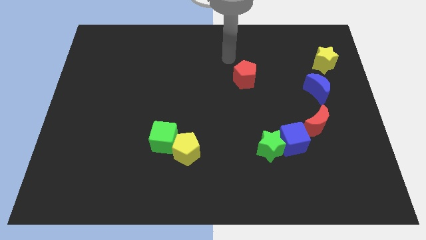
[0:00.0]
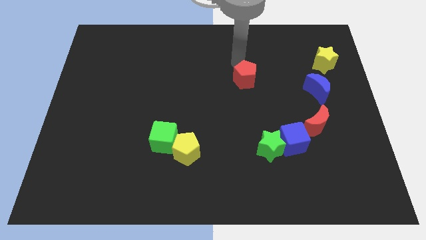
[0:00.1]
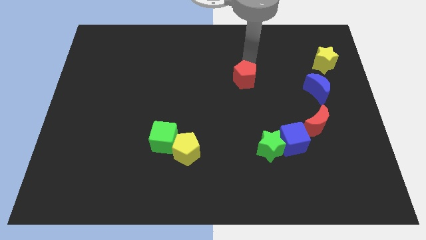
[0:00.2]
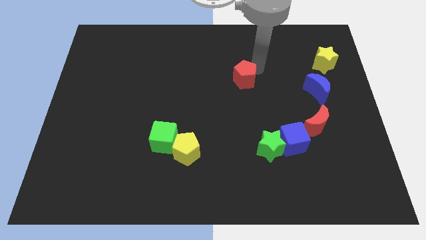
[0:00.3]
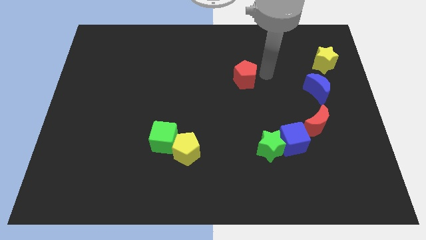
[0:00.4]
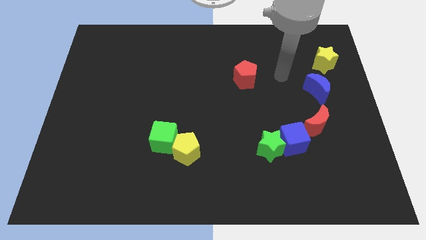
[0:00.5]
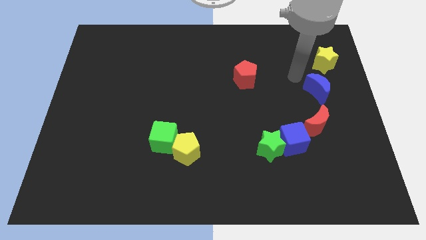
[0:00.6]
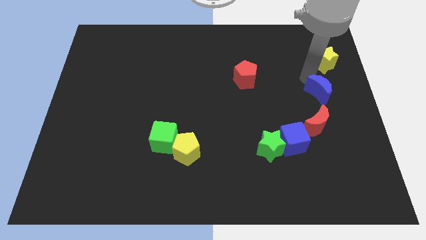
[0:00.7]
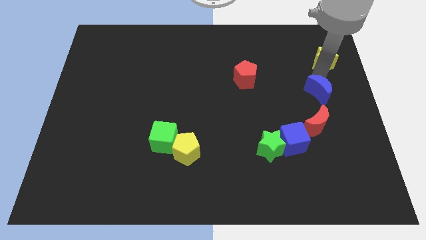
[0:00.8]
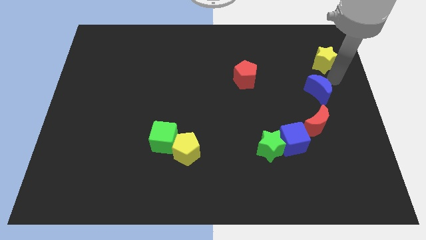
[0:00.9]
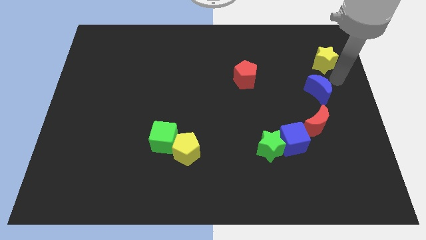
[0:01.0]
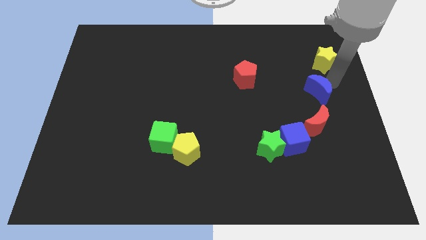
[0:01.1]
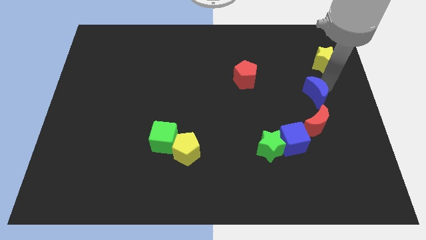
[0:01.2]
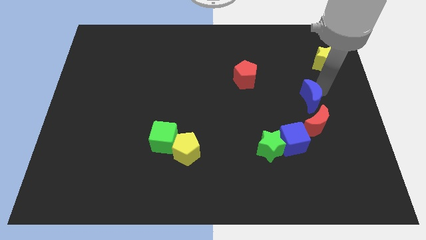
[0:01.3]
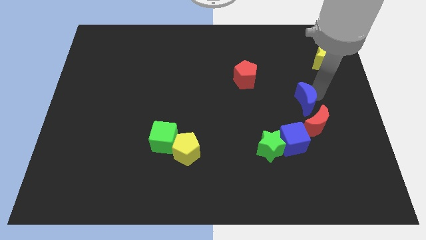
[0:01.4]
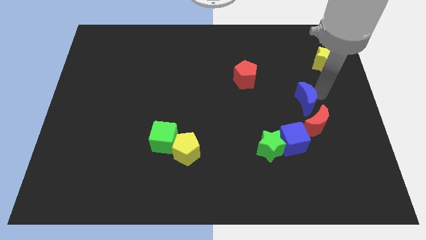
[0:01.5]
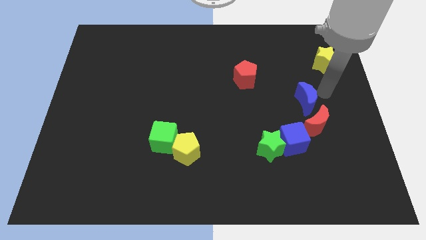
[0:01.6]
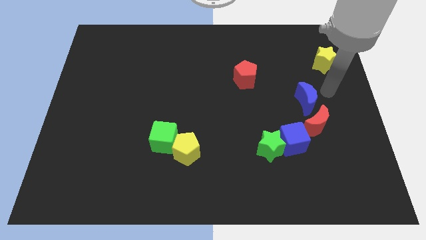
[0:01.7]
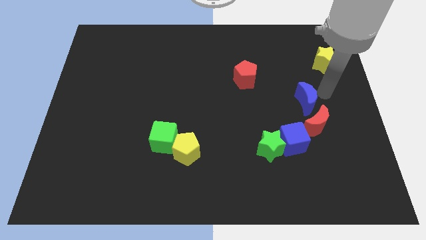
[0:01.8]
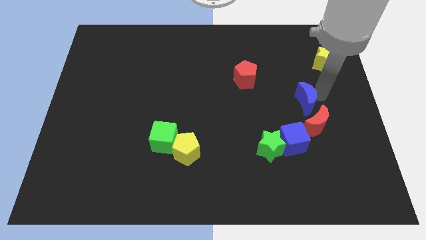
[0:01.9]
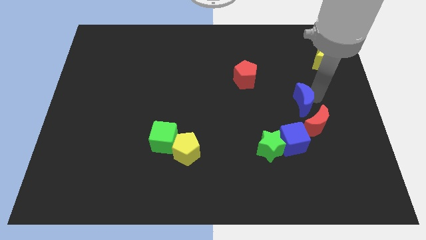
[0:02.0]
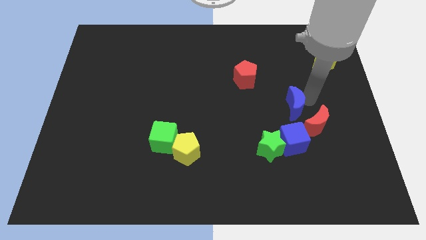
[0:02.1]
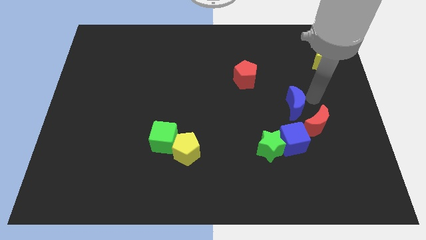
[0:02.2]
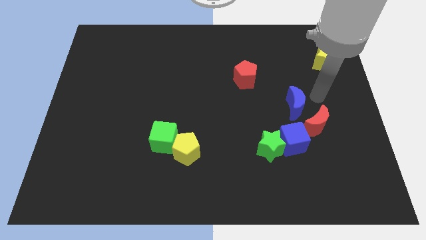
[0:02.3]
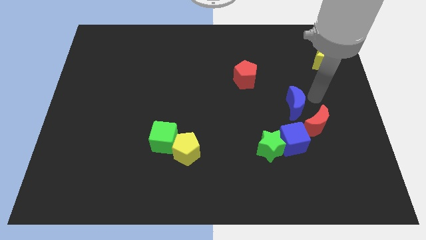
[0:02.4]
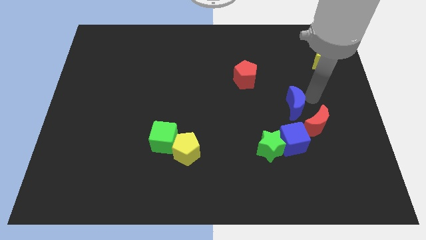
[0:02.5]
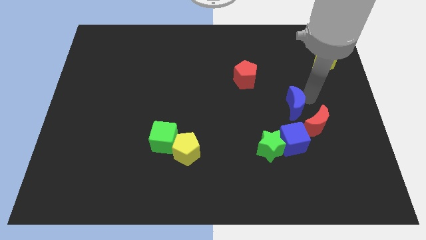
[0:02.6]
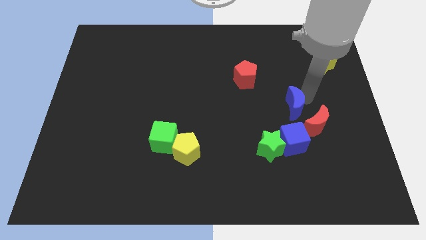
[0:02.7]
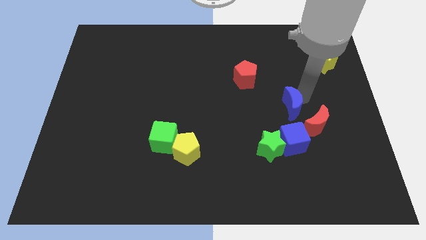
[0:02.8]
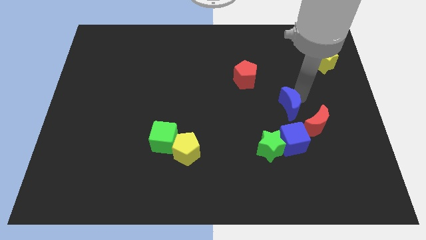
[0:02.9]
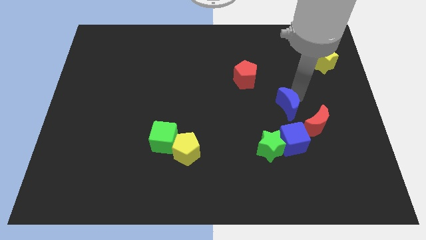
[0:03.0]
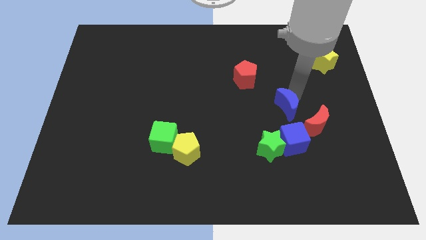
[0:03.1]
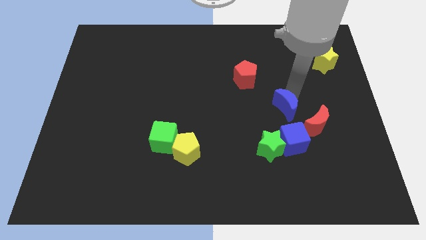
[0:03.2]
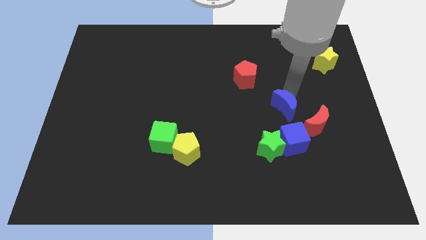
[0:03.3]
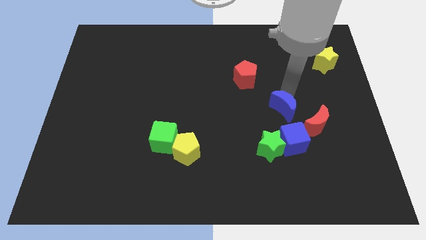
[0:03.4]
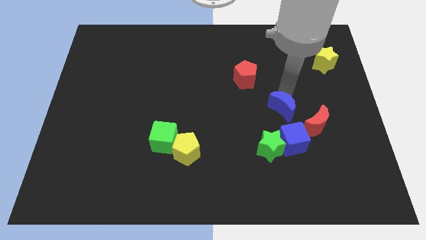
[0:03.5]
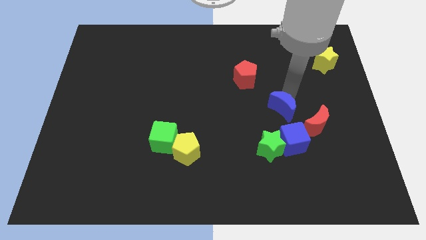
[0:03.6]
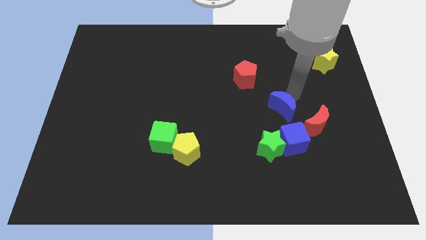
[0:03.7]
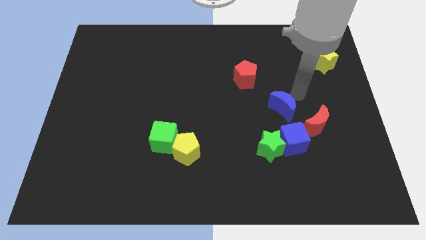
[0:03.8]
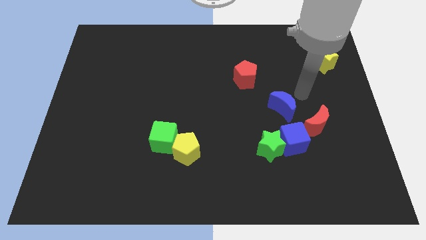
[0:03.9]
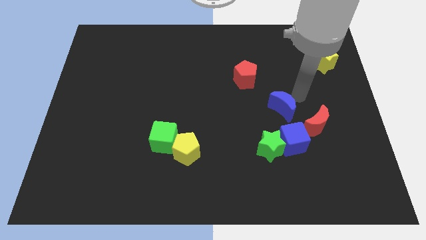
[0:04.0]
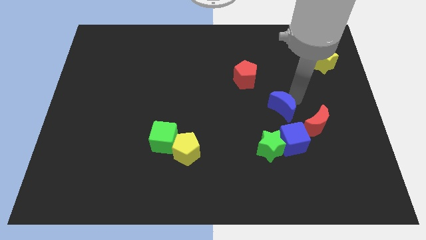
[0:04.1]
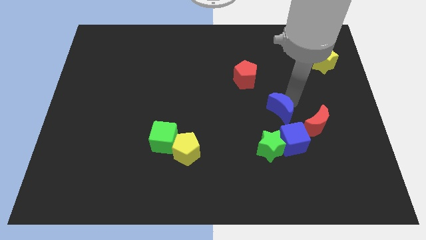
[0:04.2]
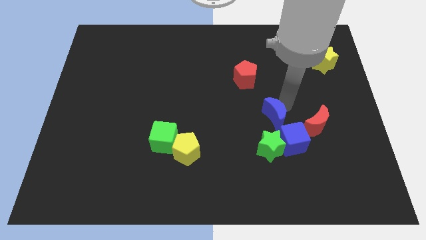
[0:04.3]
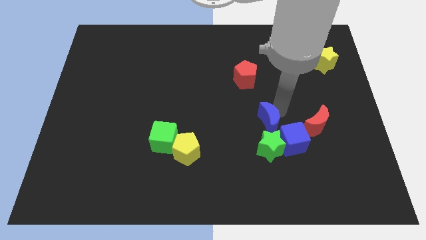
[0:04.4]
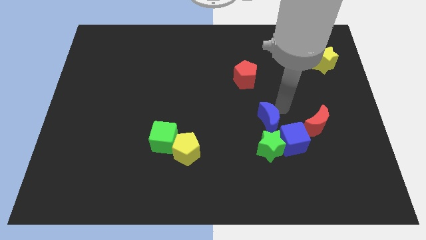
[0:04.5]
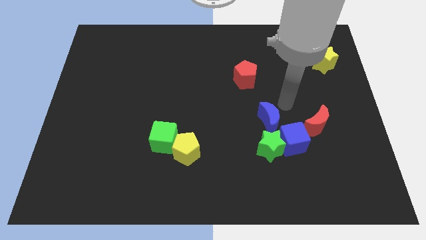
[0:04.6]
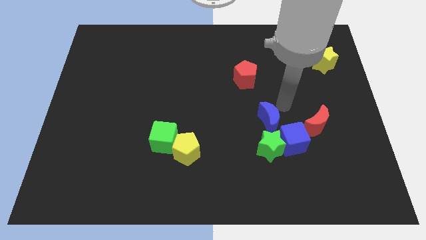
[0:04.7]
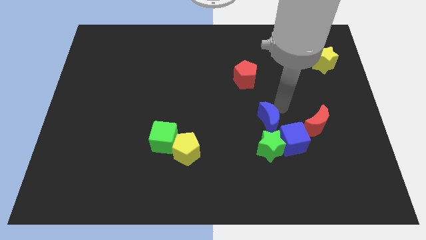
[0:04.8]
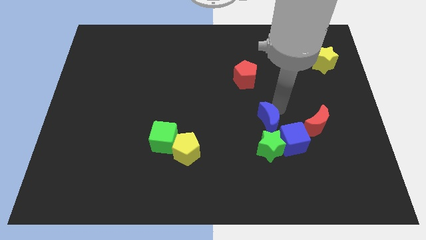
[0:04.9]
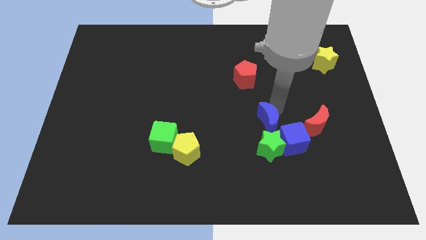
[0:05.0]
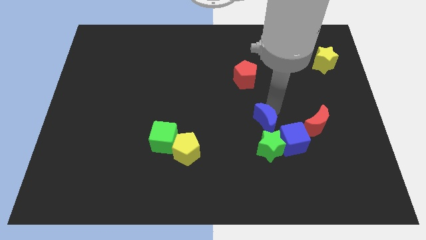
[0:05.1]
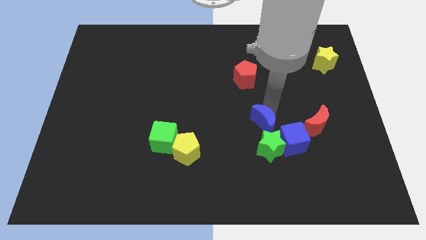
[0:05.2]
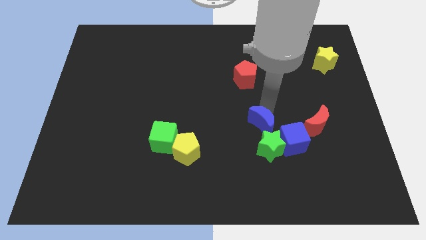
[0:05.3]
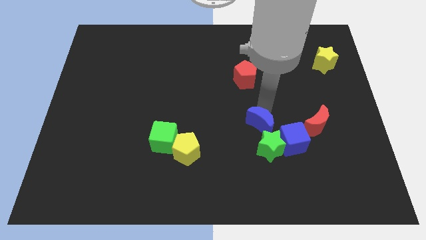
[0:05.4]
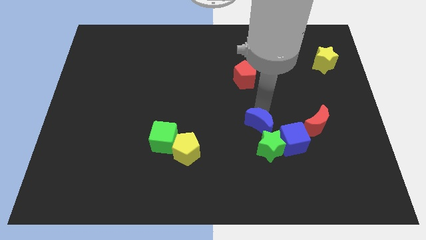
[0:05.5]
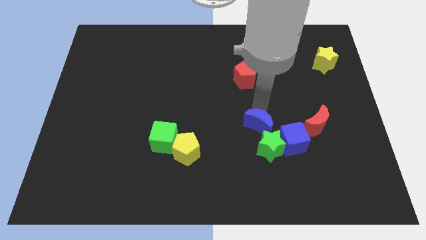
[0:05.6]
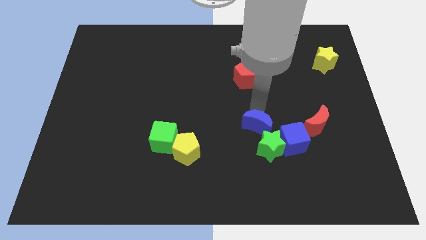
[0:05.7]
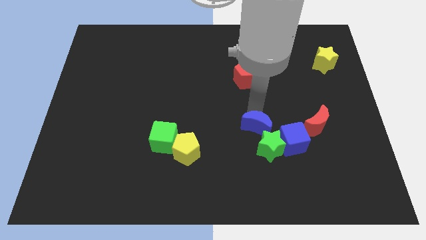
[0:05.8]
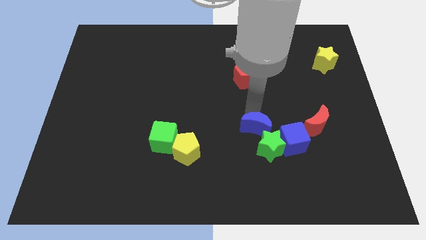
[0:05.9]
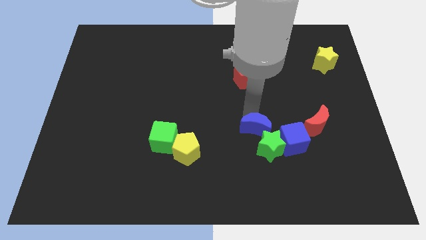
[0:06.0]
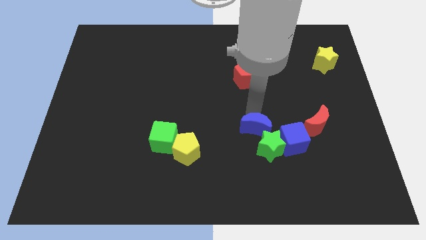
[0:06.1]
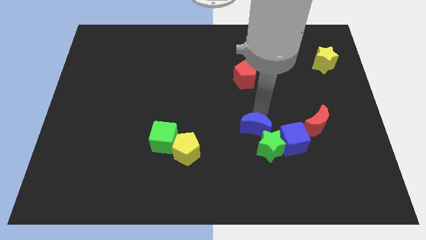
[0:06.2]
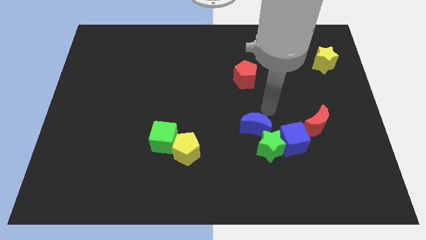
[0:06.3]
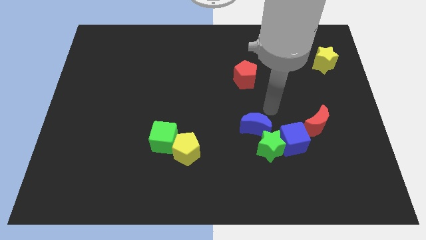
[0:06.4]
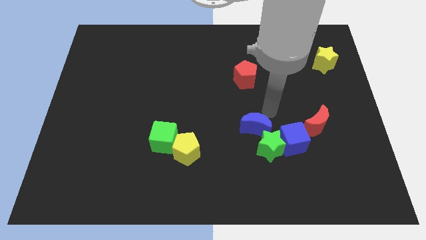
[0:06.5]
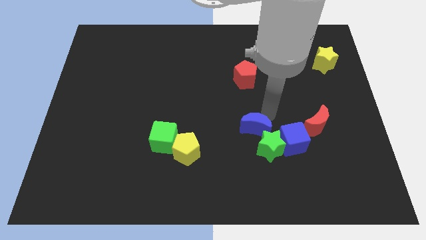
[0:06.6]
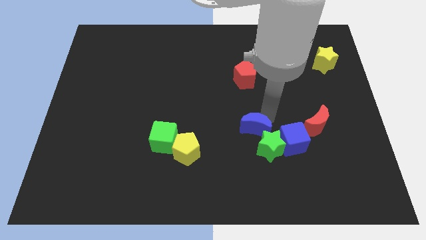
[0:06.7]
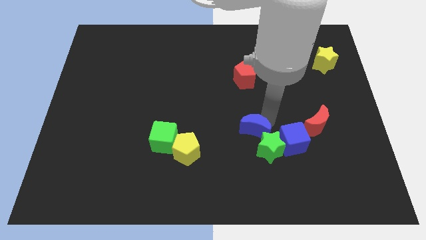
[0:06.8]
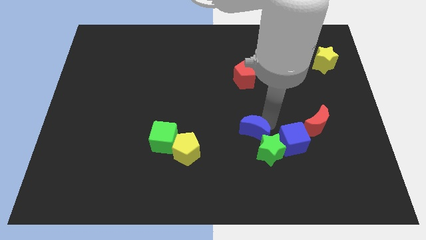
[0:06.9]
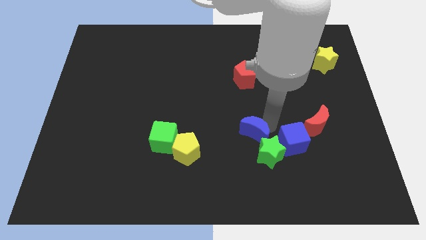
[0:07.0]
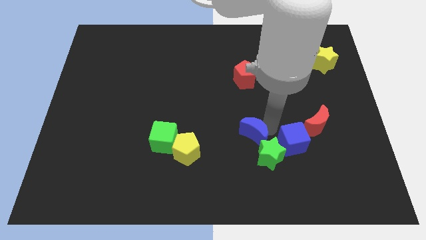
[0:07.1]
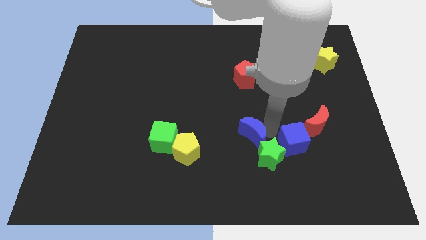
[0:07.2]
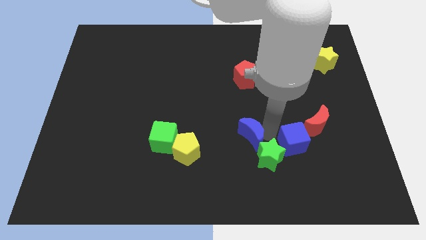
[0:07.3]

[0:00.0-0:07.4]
put the blue moon right of the yellow pentagon

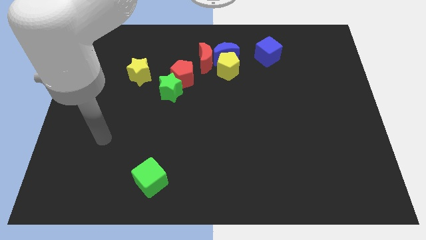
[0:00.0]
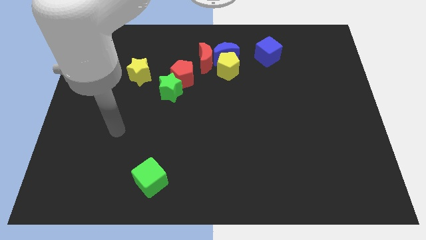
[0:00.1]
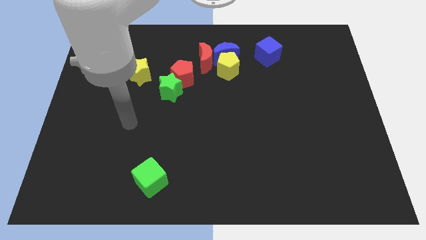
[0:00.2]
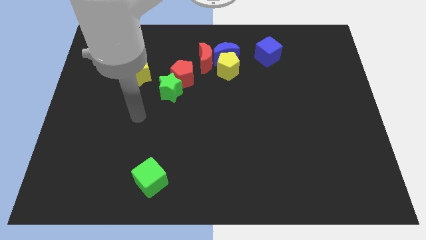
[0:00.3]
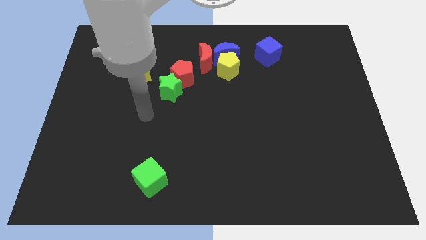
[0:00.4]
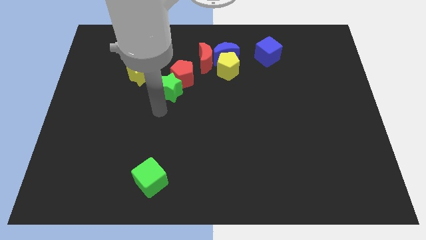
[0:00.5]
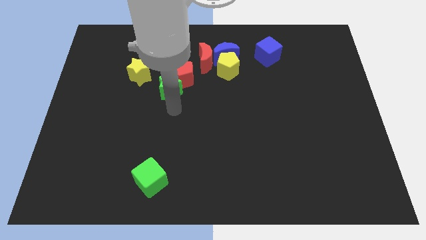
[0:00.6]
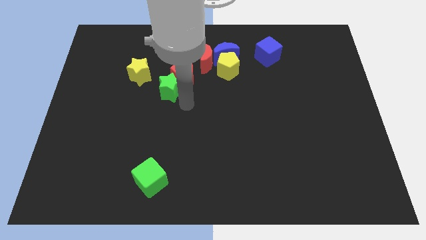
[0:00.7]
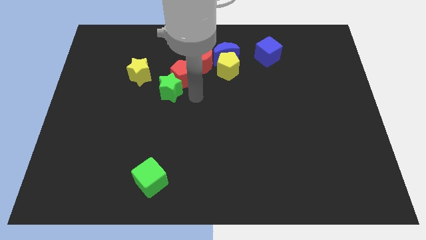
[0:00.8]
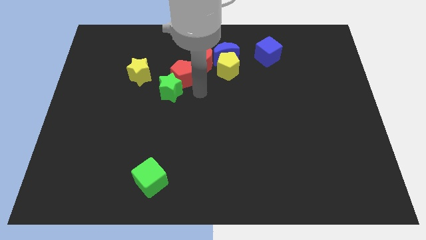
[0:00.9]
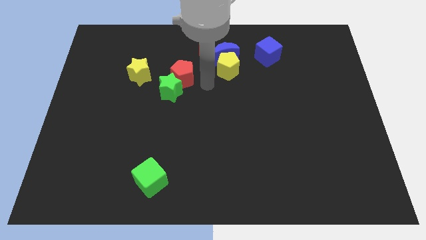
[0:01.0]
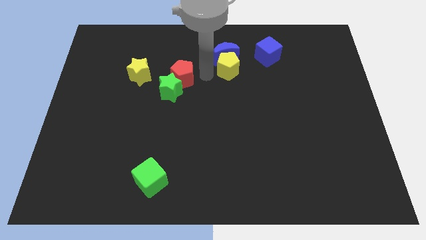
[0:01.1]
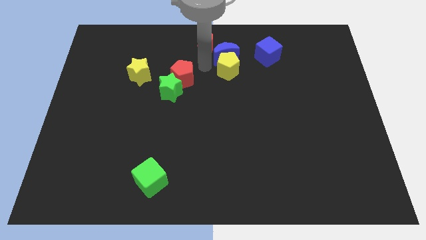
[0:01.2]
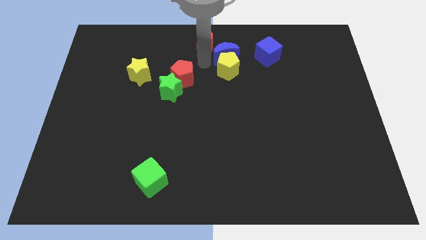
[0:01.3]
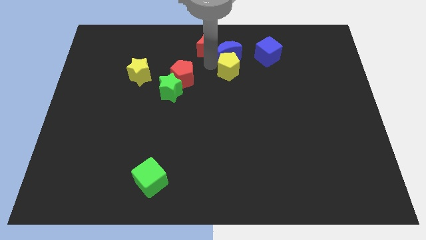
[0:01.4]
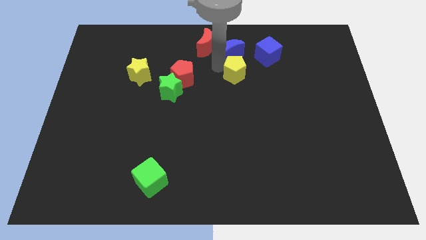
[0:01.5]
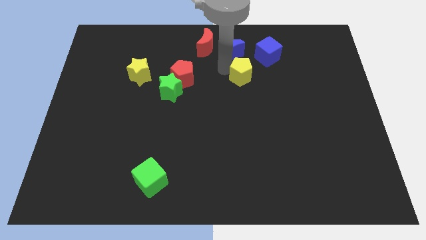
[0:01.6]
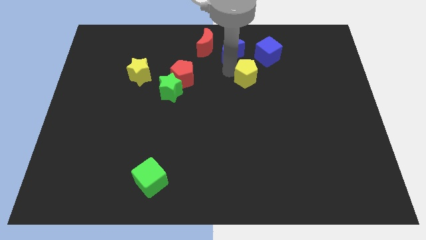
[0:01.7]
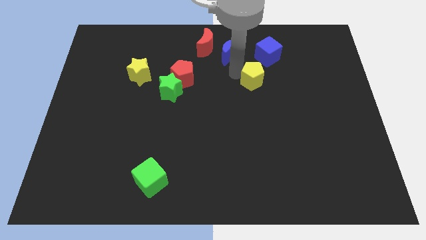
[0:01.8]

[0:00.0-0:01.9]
push the yellow pentagon to the bottom side of the blue cube
